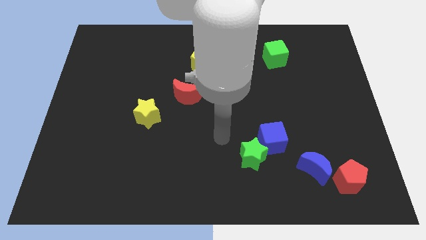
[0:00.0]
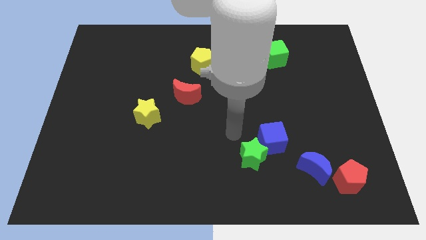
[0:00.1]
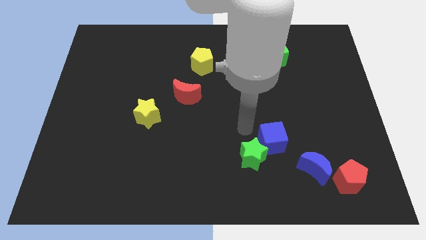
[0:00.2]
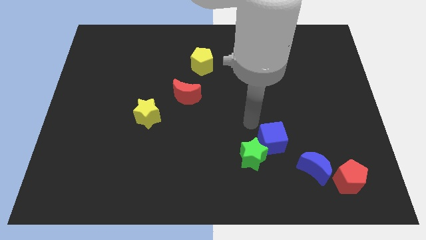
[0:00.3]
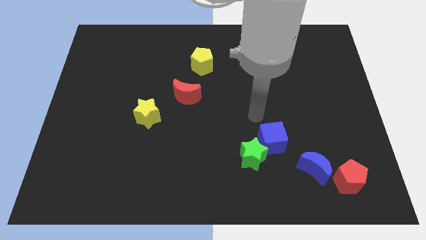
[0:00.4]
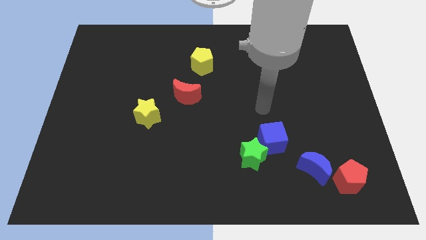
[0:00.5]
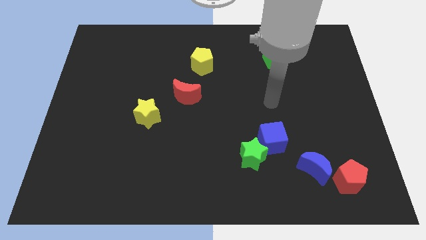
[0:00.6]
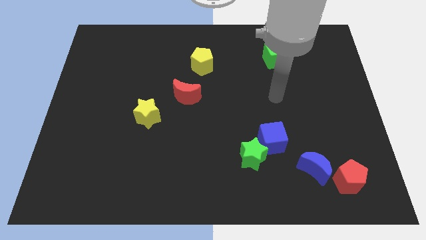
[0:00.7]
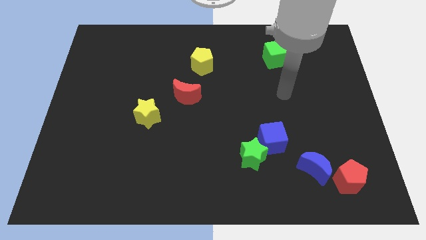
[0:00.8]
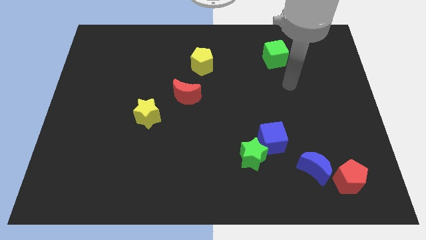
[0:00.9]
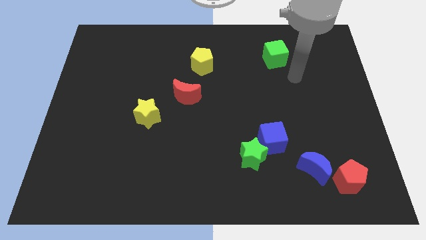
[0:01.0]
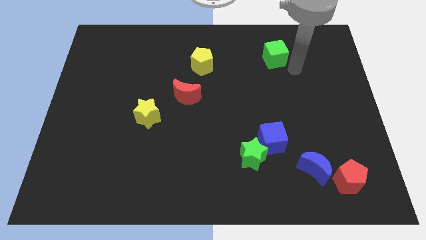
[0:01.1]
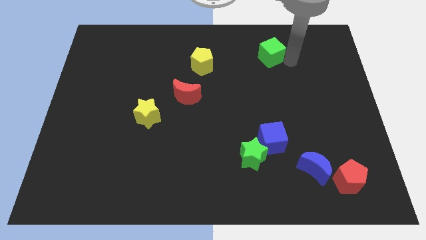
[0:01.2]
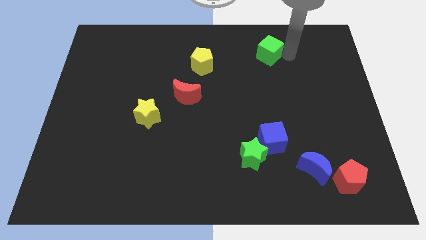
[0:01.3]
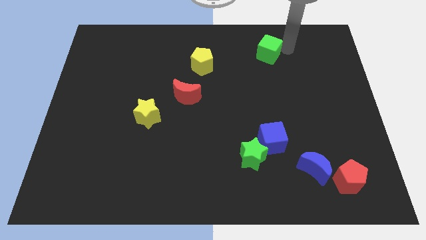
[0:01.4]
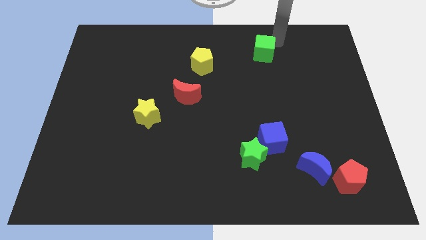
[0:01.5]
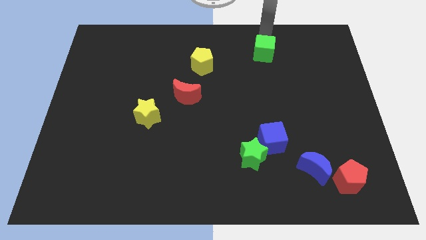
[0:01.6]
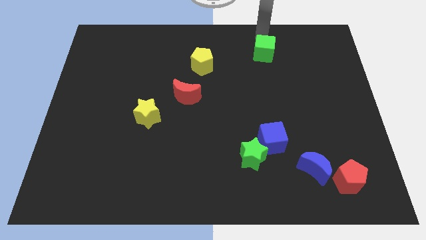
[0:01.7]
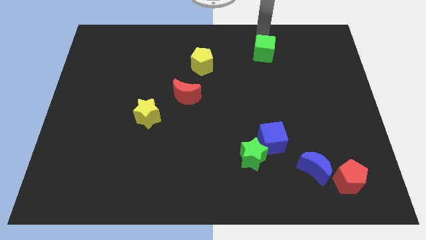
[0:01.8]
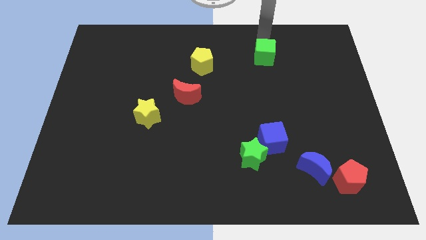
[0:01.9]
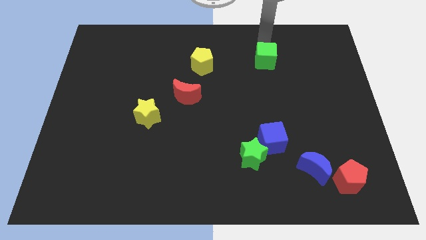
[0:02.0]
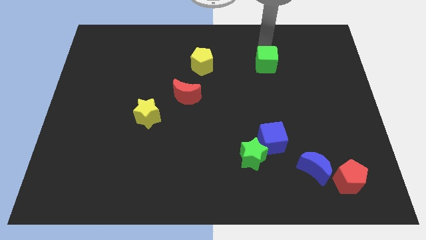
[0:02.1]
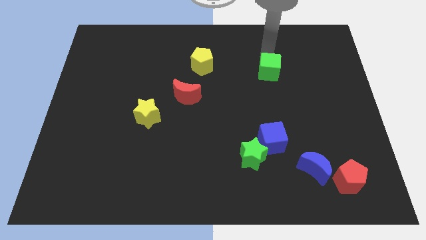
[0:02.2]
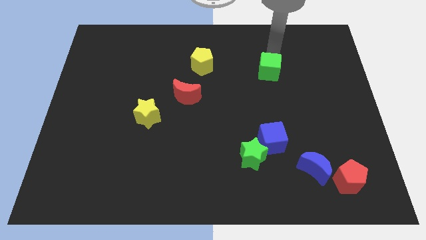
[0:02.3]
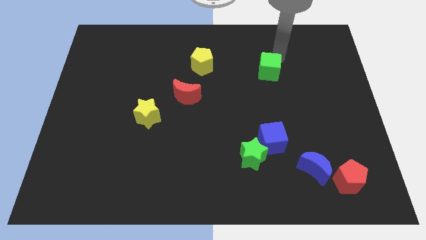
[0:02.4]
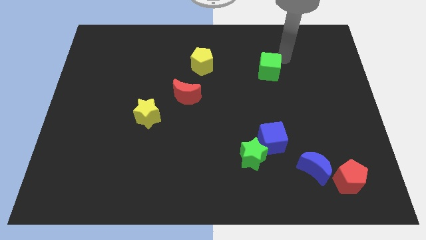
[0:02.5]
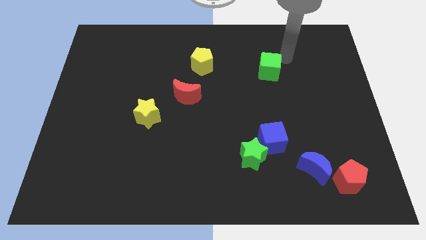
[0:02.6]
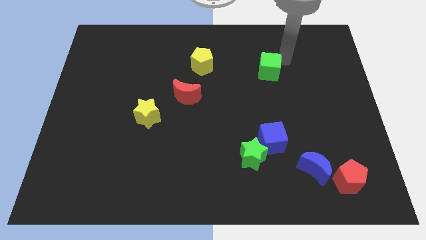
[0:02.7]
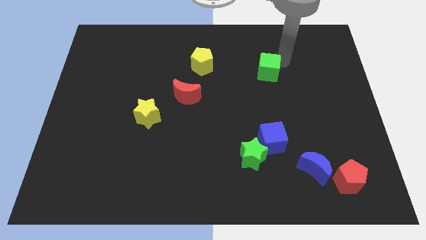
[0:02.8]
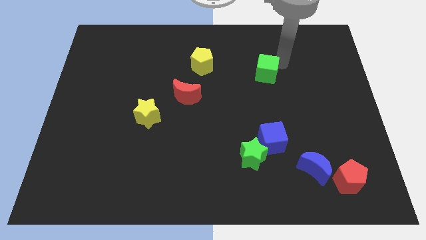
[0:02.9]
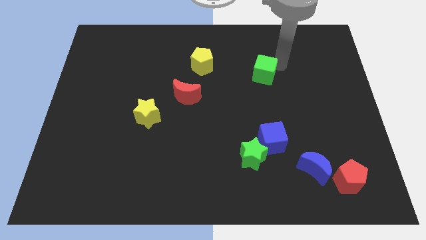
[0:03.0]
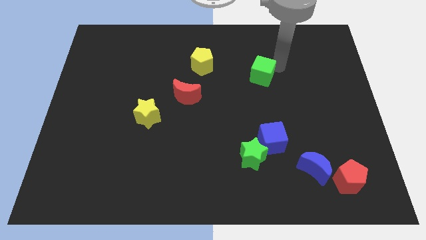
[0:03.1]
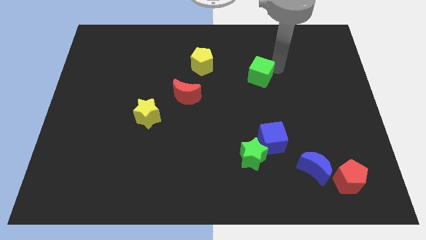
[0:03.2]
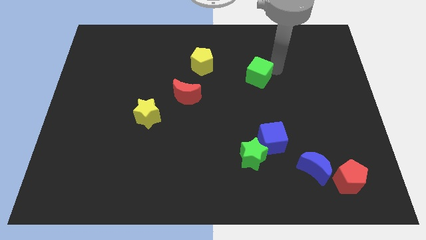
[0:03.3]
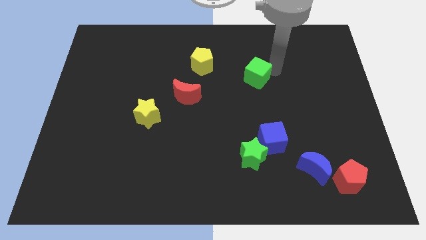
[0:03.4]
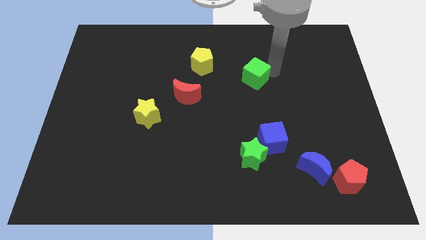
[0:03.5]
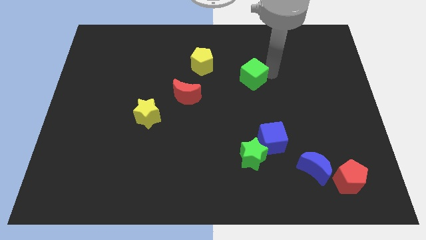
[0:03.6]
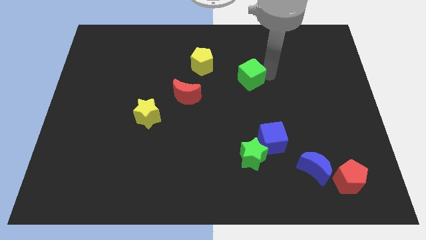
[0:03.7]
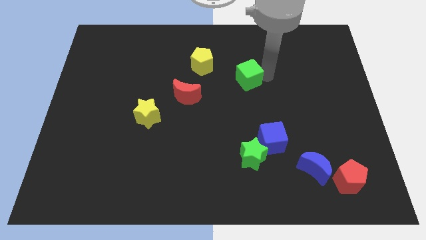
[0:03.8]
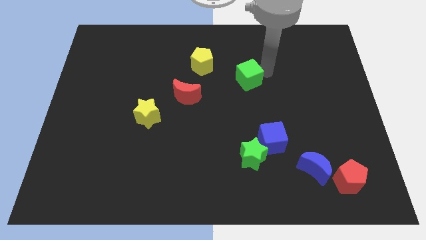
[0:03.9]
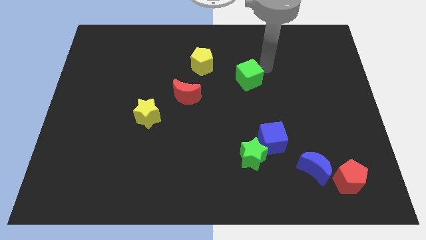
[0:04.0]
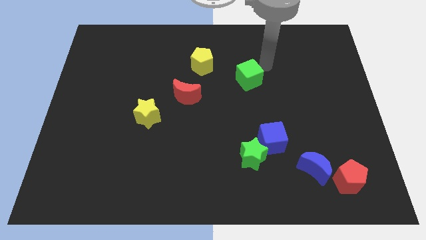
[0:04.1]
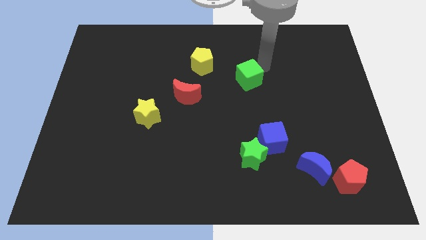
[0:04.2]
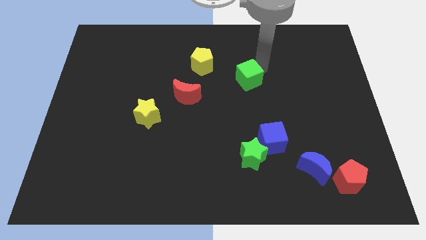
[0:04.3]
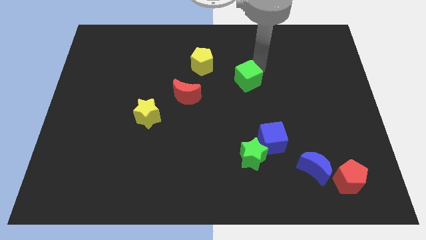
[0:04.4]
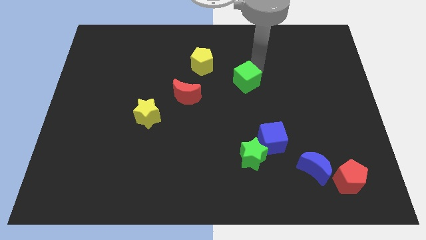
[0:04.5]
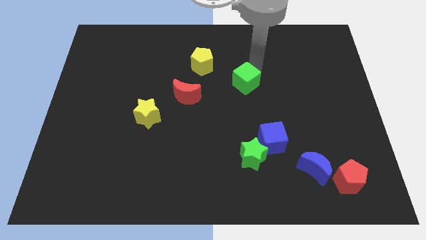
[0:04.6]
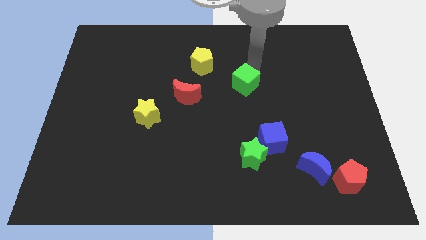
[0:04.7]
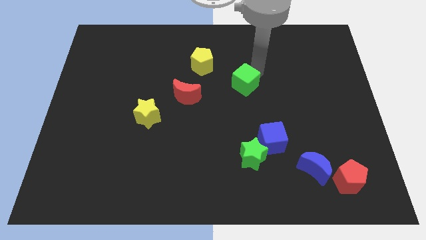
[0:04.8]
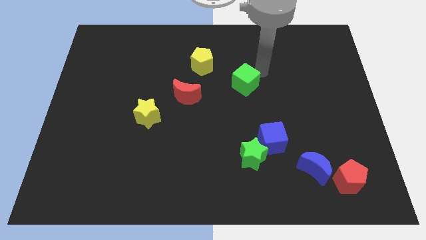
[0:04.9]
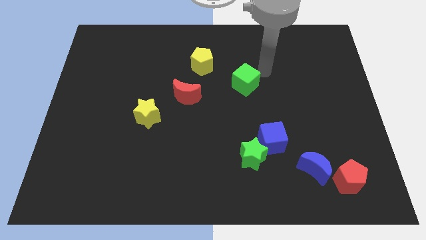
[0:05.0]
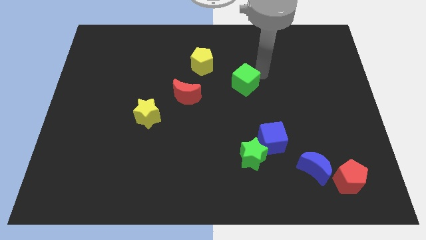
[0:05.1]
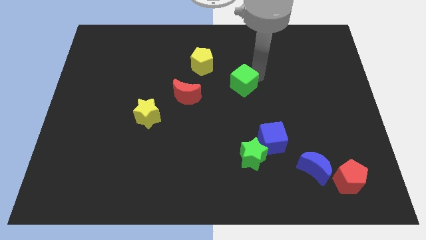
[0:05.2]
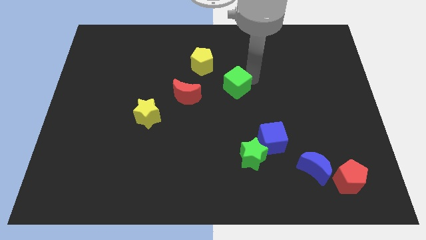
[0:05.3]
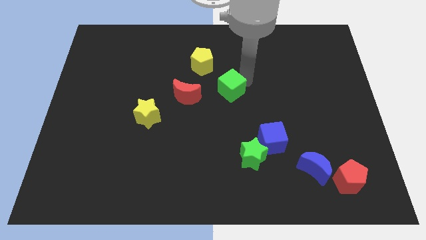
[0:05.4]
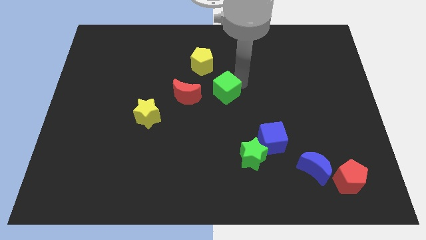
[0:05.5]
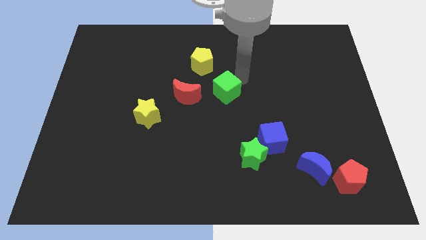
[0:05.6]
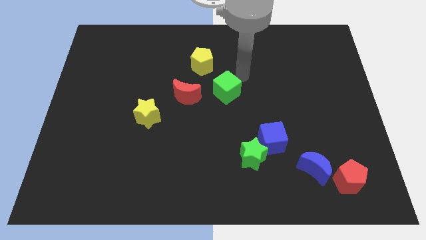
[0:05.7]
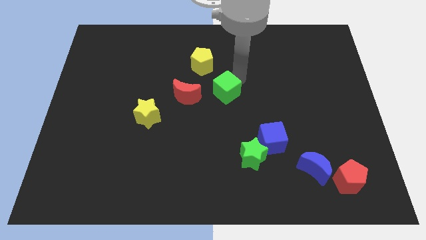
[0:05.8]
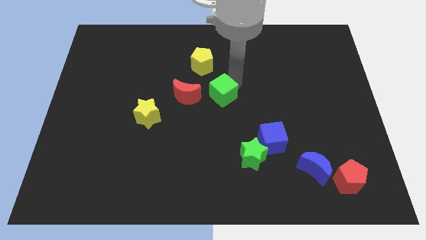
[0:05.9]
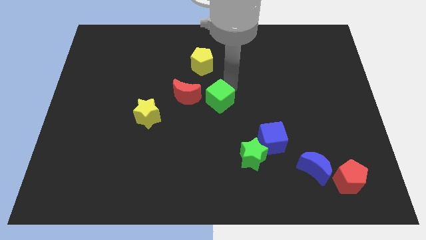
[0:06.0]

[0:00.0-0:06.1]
move the green cube diagonally down and left

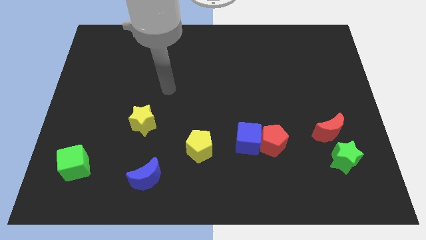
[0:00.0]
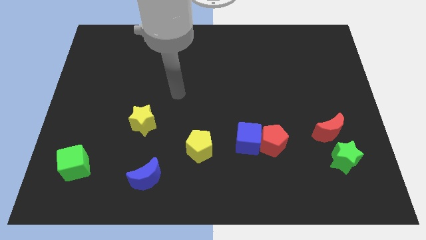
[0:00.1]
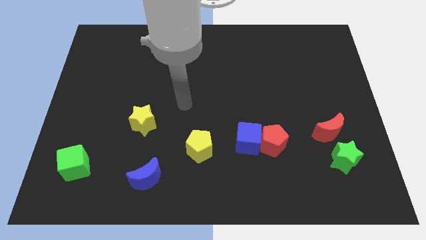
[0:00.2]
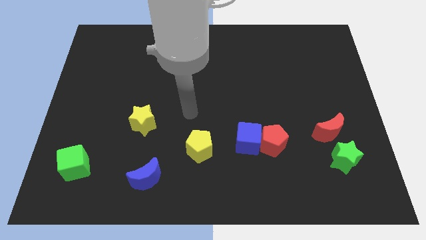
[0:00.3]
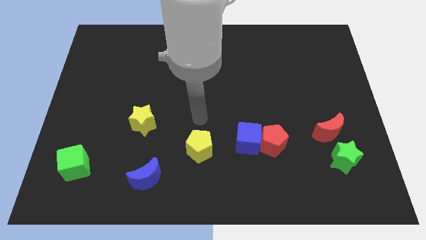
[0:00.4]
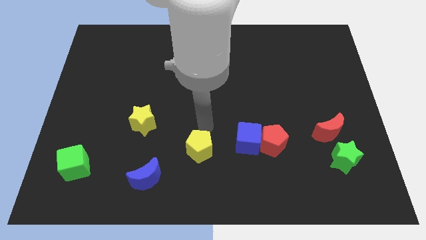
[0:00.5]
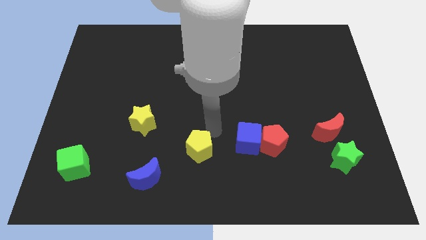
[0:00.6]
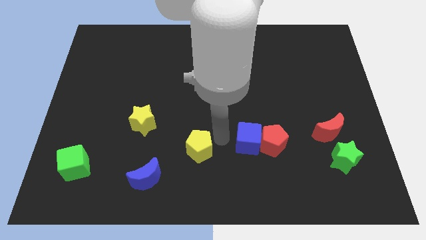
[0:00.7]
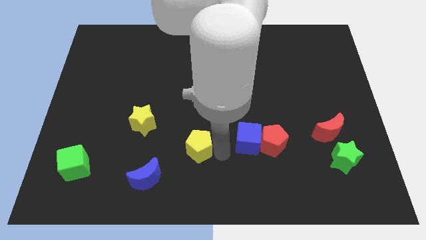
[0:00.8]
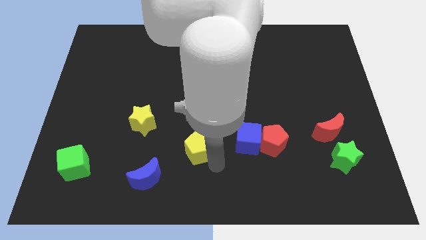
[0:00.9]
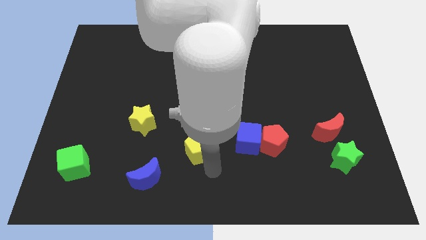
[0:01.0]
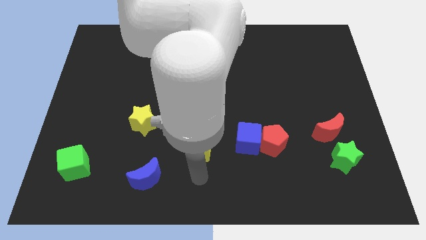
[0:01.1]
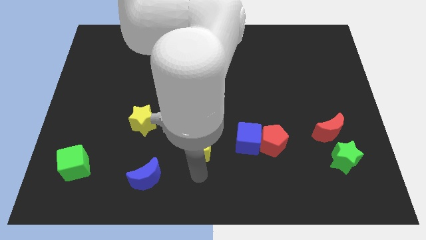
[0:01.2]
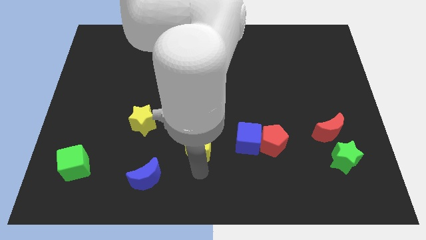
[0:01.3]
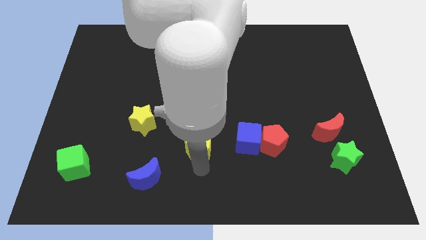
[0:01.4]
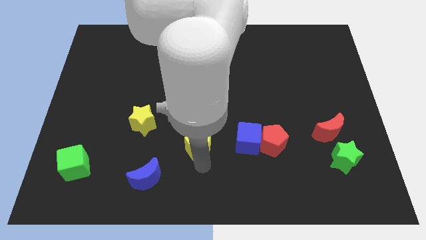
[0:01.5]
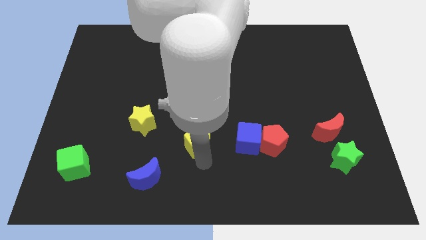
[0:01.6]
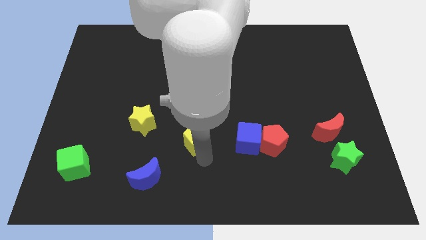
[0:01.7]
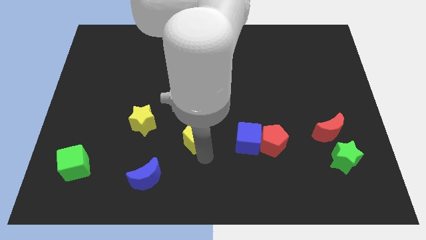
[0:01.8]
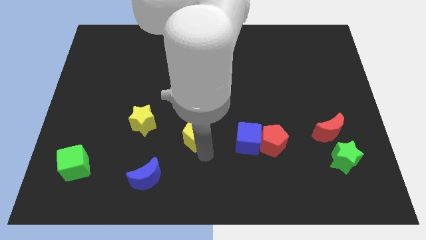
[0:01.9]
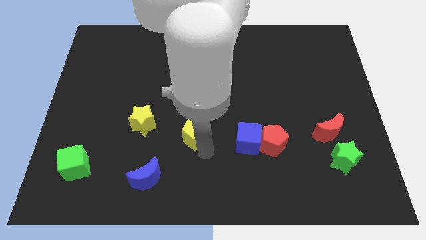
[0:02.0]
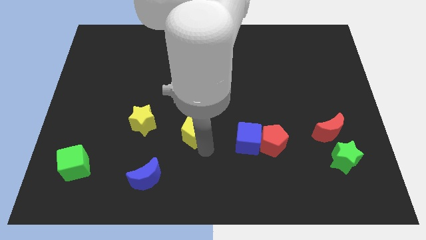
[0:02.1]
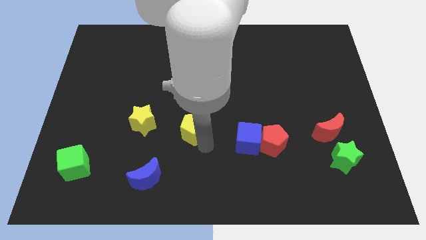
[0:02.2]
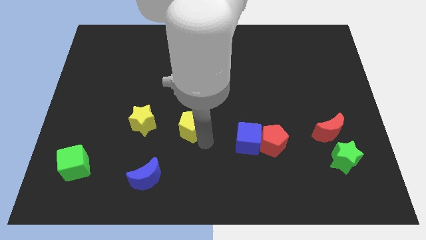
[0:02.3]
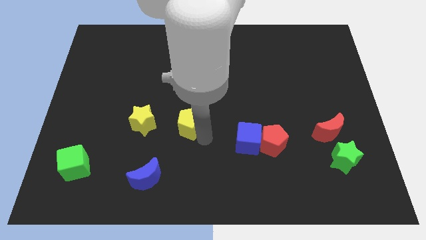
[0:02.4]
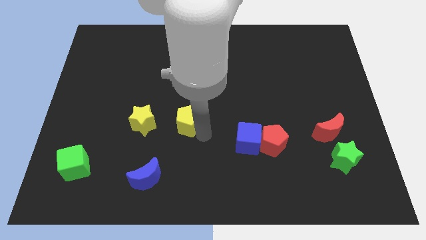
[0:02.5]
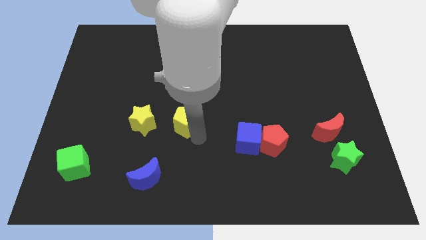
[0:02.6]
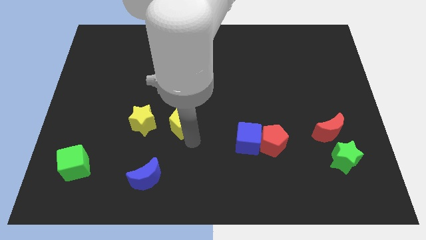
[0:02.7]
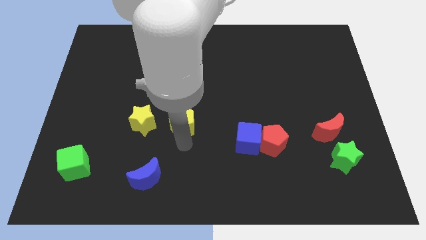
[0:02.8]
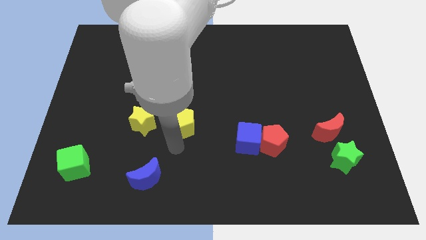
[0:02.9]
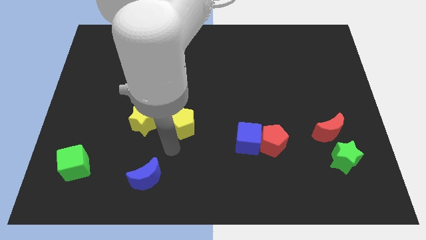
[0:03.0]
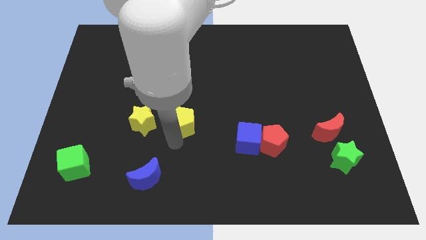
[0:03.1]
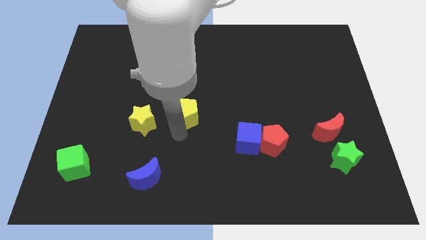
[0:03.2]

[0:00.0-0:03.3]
push the yellow pentagon a little upwards
